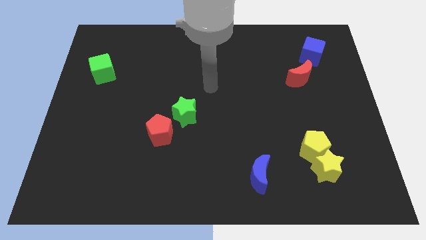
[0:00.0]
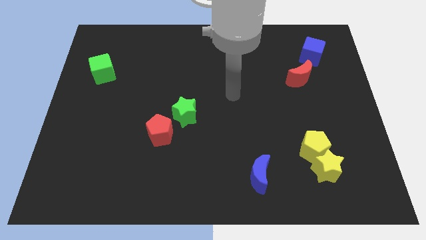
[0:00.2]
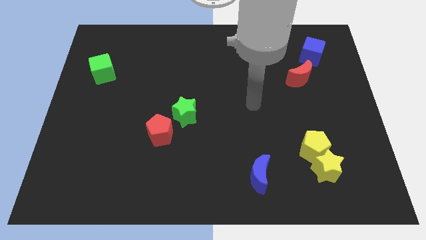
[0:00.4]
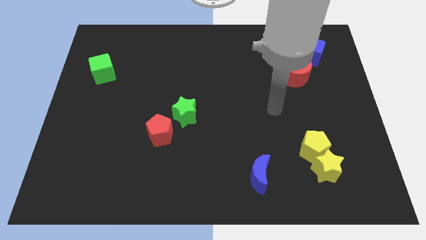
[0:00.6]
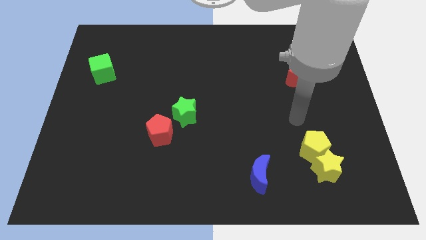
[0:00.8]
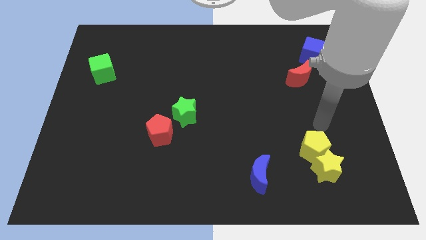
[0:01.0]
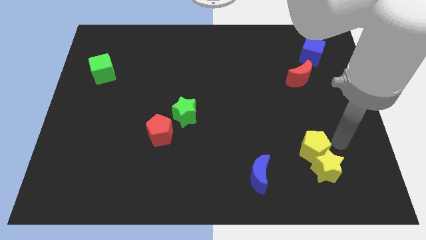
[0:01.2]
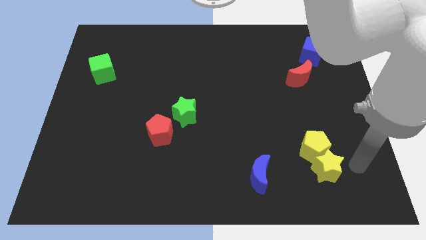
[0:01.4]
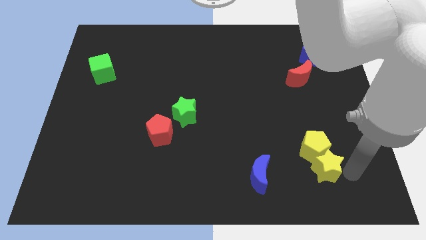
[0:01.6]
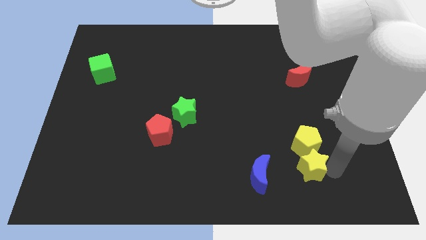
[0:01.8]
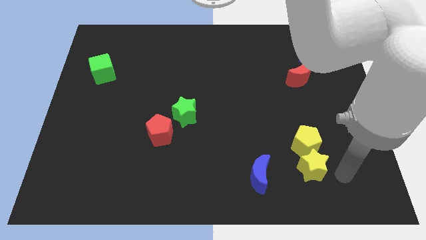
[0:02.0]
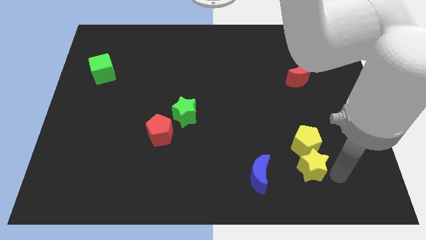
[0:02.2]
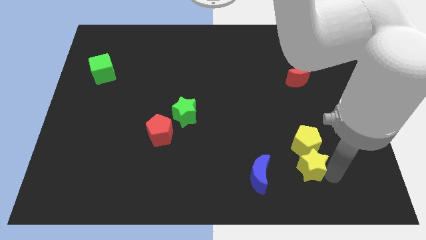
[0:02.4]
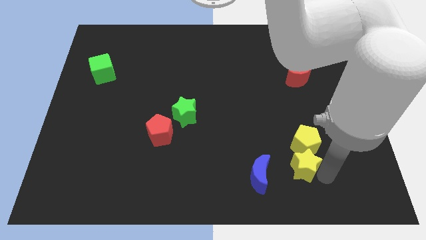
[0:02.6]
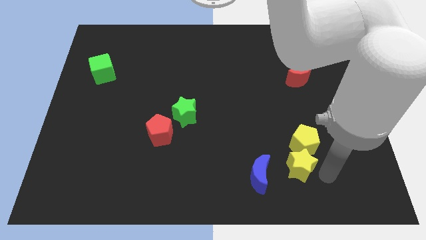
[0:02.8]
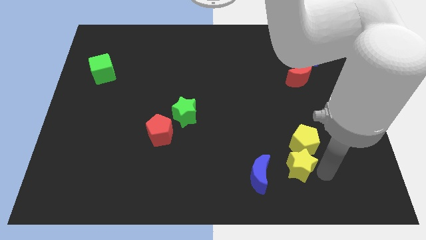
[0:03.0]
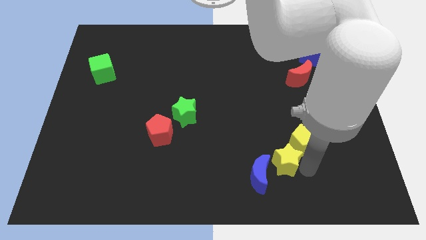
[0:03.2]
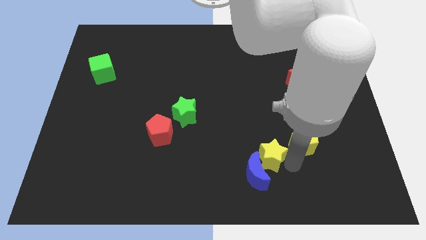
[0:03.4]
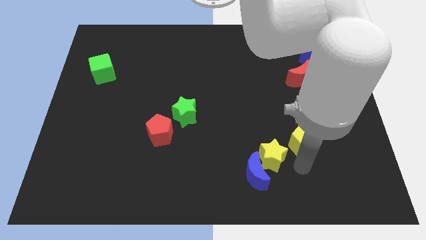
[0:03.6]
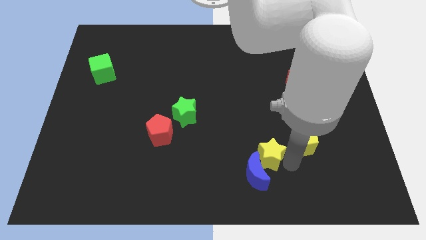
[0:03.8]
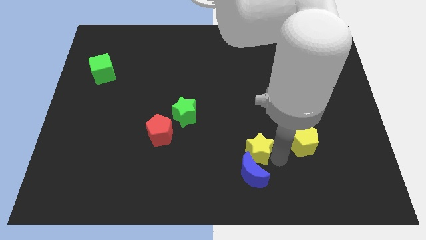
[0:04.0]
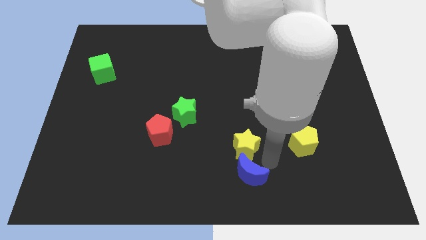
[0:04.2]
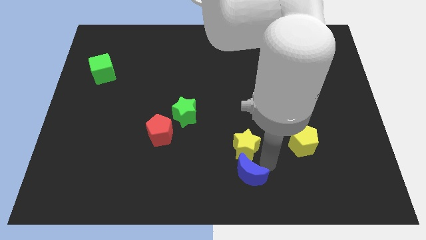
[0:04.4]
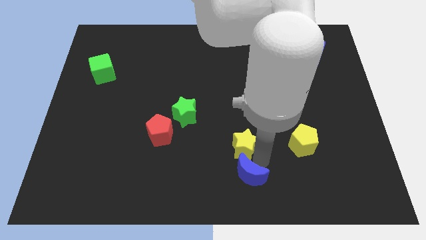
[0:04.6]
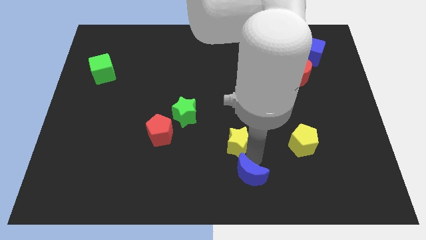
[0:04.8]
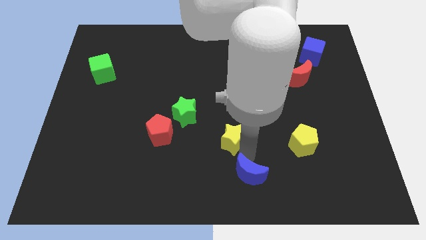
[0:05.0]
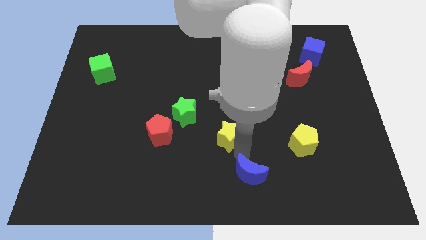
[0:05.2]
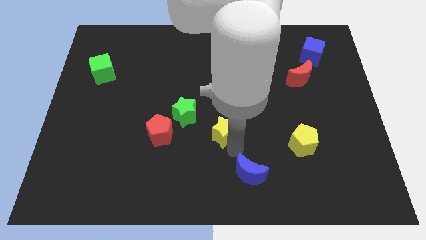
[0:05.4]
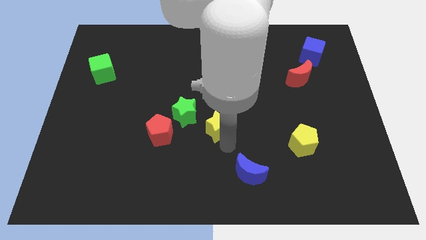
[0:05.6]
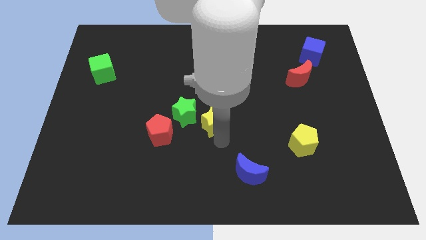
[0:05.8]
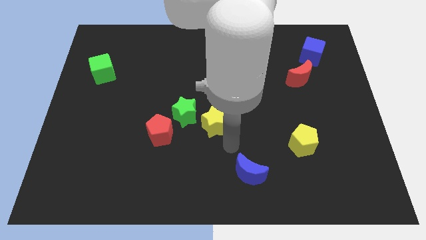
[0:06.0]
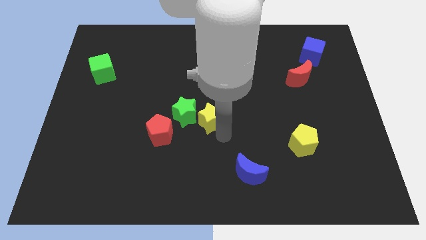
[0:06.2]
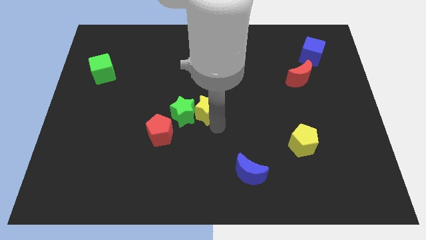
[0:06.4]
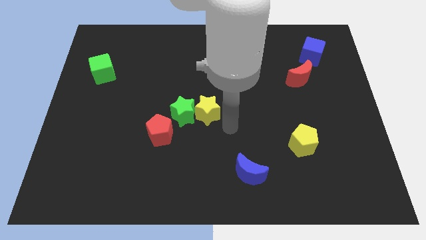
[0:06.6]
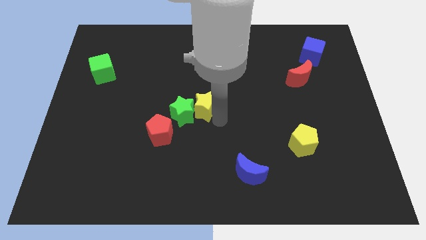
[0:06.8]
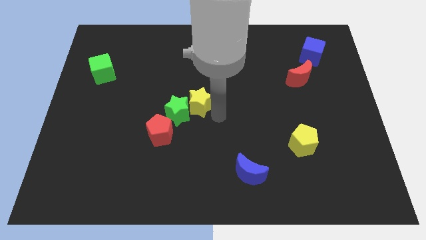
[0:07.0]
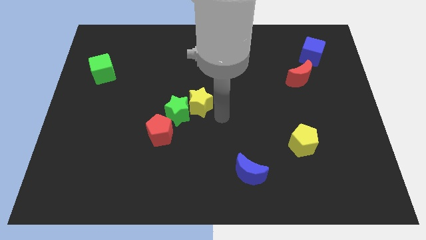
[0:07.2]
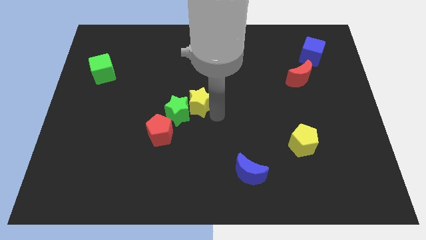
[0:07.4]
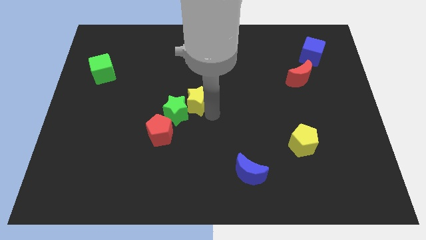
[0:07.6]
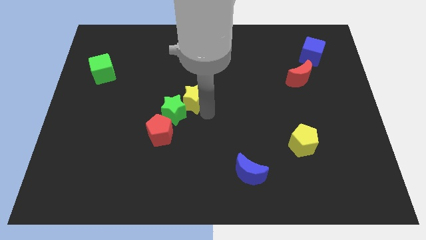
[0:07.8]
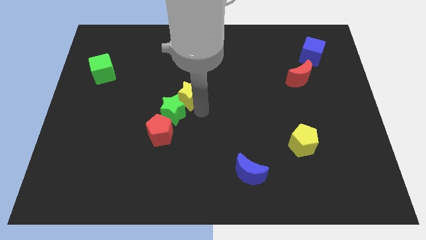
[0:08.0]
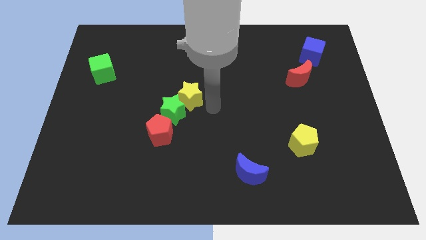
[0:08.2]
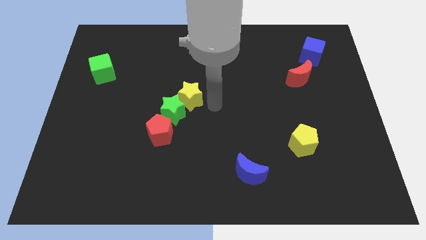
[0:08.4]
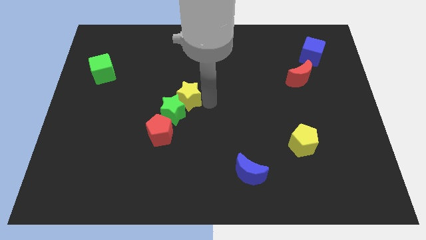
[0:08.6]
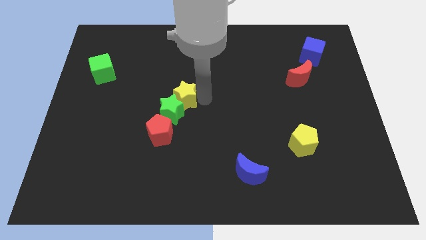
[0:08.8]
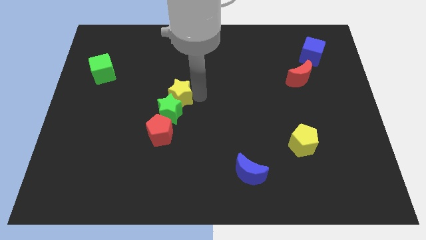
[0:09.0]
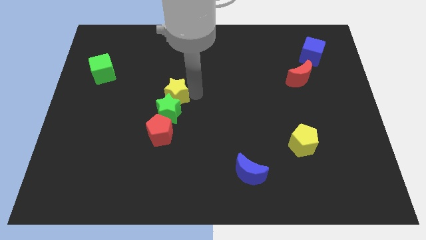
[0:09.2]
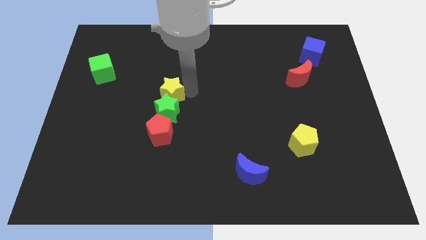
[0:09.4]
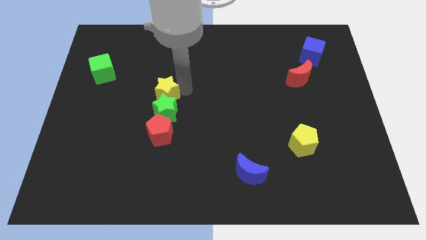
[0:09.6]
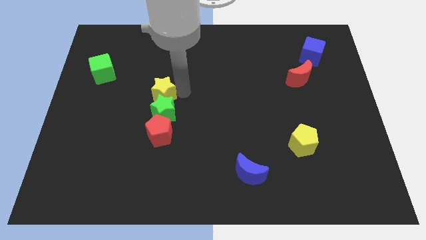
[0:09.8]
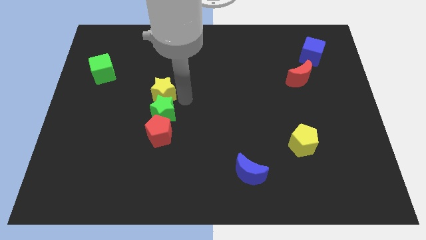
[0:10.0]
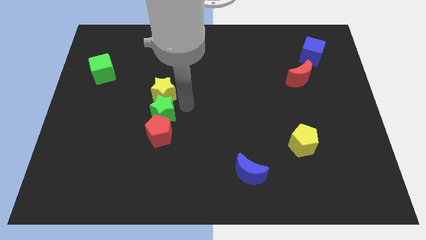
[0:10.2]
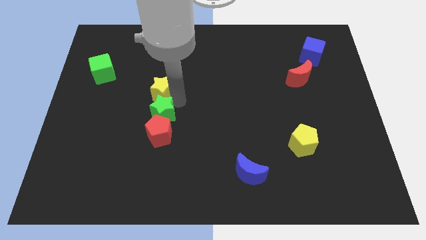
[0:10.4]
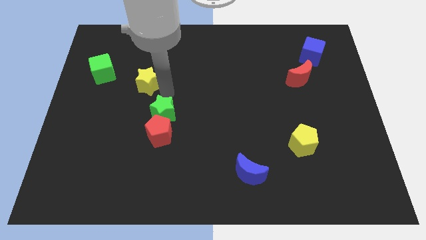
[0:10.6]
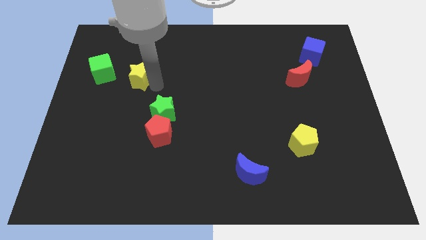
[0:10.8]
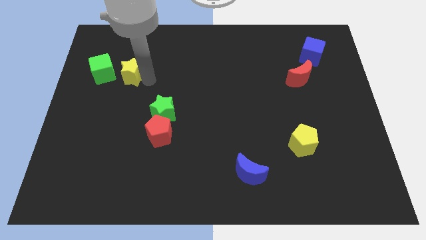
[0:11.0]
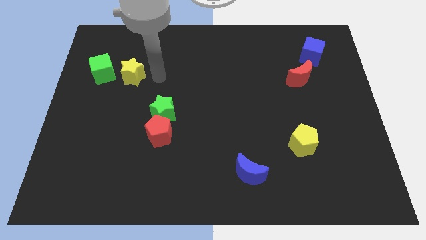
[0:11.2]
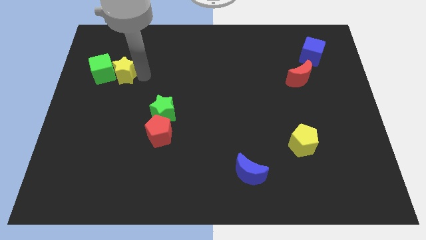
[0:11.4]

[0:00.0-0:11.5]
move the yellow star close to the green cube

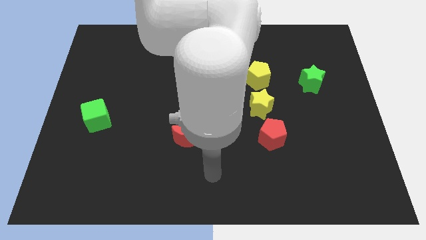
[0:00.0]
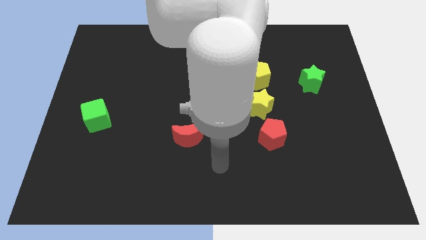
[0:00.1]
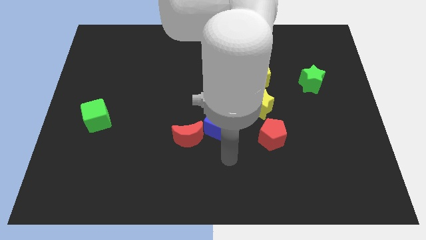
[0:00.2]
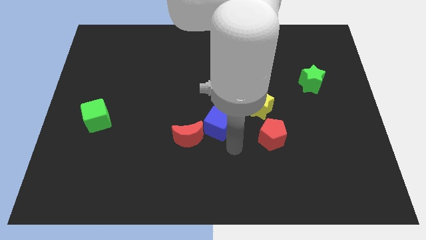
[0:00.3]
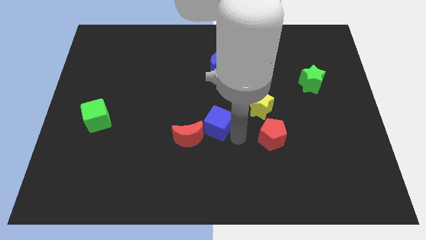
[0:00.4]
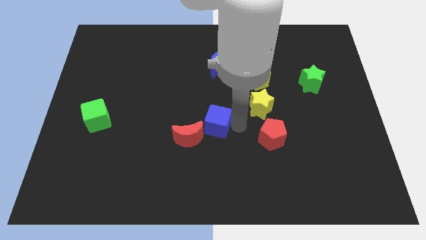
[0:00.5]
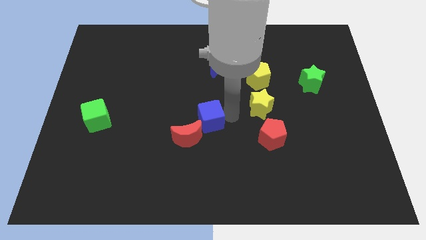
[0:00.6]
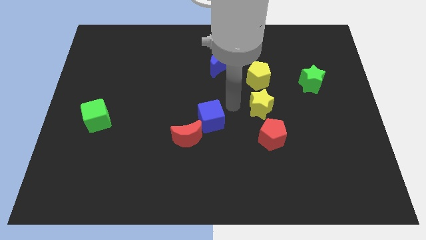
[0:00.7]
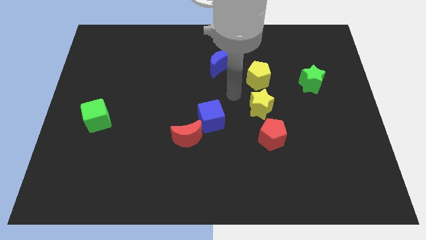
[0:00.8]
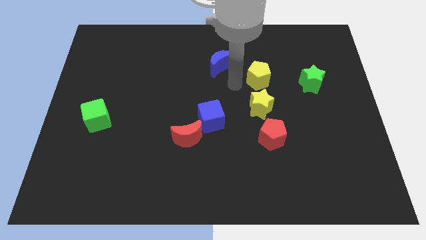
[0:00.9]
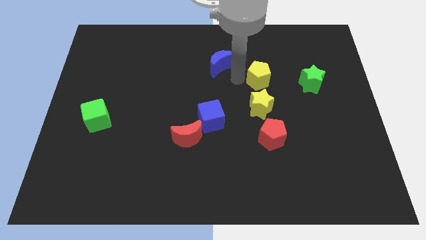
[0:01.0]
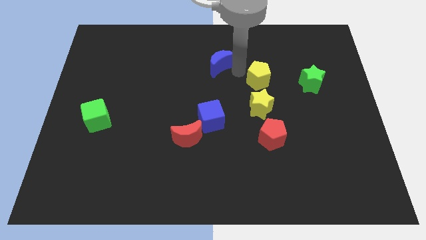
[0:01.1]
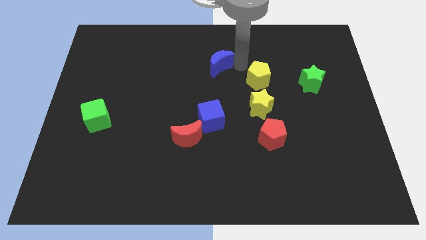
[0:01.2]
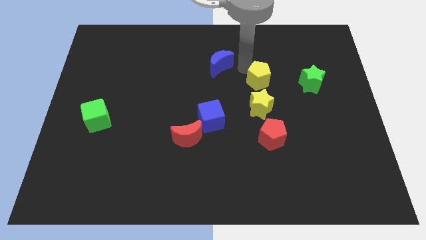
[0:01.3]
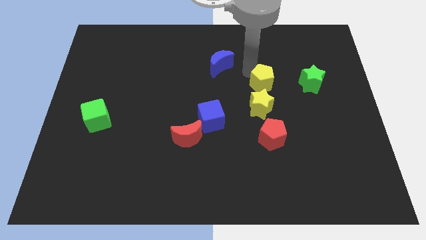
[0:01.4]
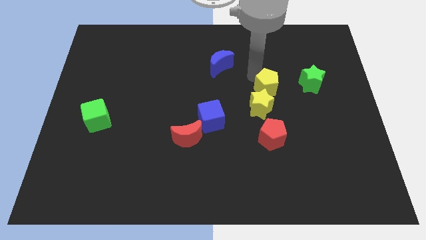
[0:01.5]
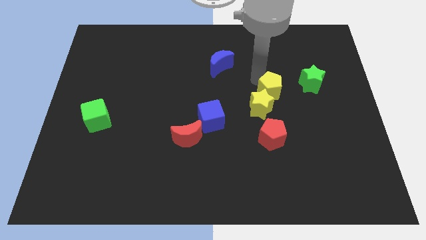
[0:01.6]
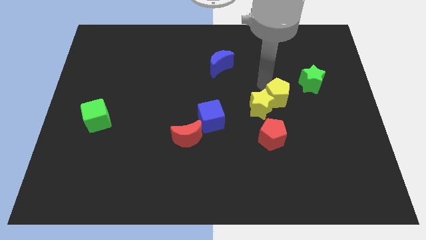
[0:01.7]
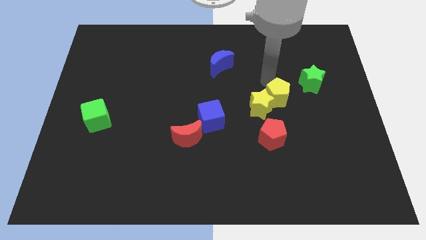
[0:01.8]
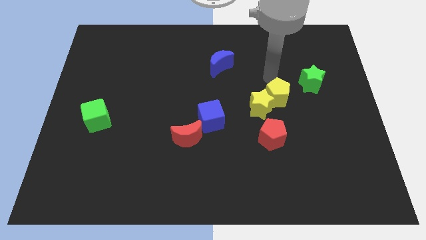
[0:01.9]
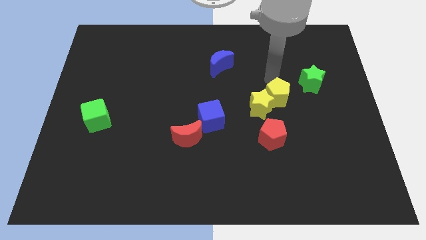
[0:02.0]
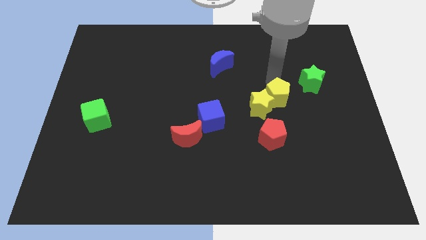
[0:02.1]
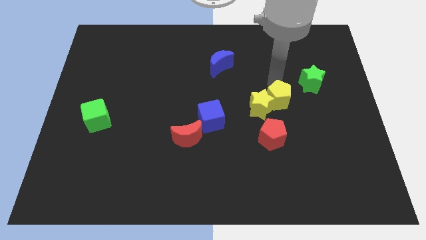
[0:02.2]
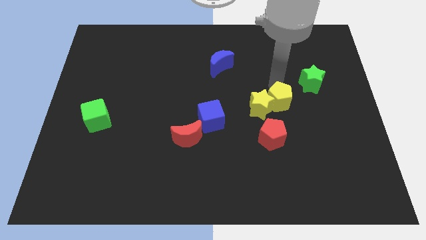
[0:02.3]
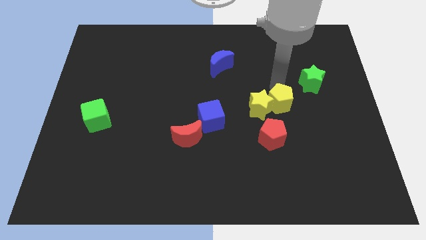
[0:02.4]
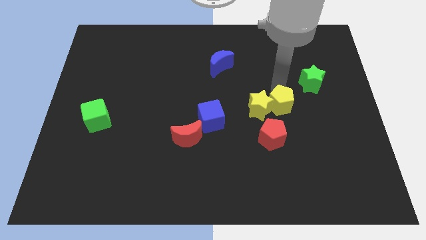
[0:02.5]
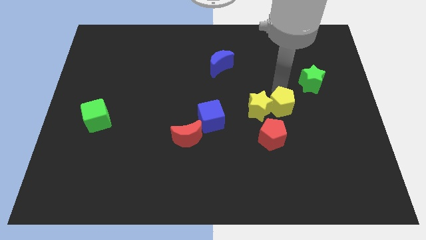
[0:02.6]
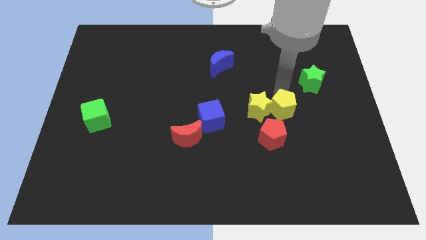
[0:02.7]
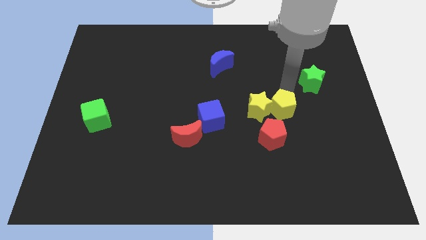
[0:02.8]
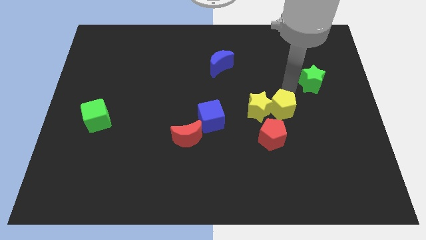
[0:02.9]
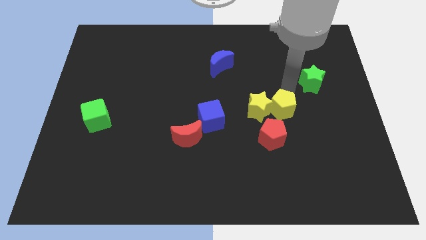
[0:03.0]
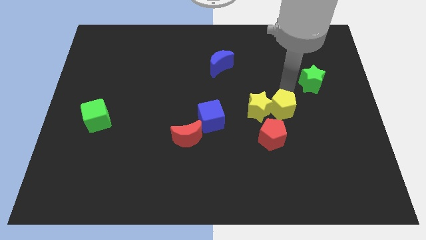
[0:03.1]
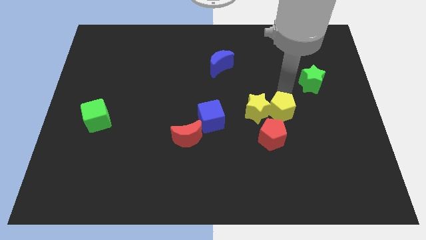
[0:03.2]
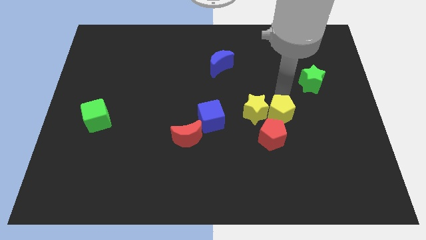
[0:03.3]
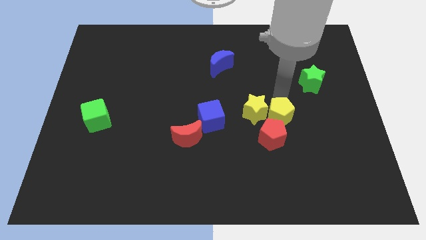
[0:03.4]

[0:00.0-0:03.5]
move the yellow pentagon towards the red pentagon
